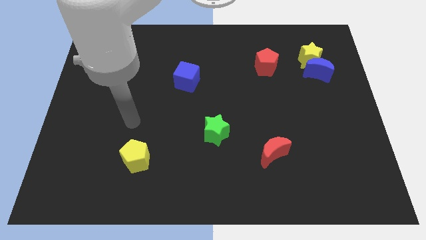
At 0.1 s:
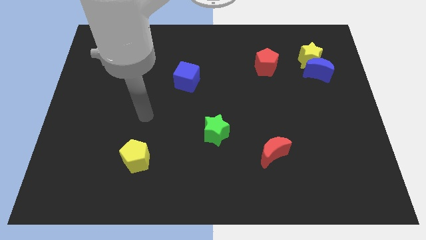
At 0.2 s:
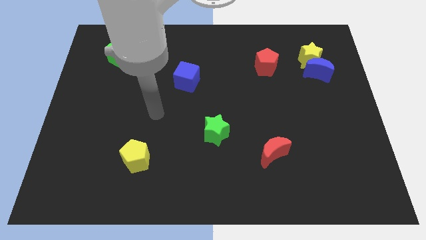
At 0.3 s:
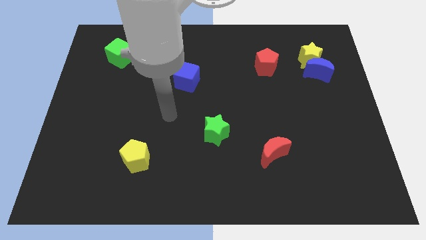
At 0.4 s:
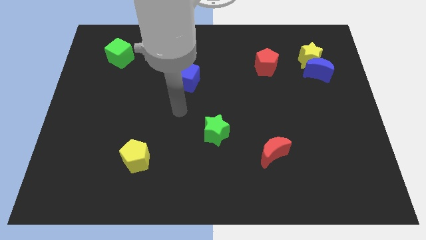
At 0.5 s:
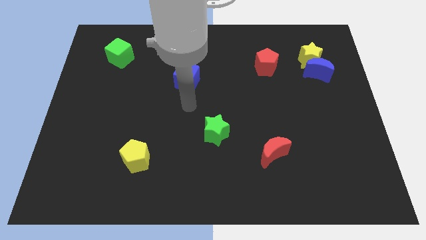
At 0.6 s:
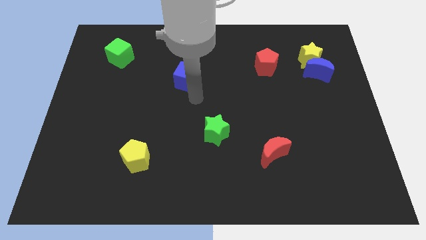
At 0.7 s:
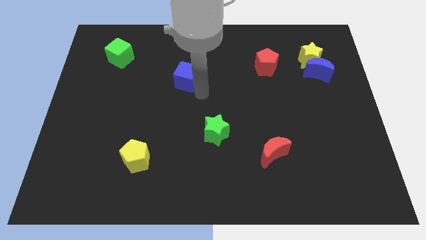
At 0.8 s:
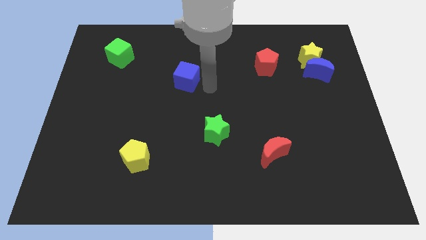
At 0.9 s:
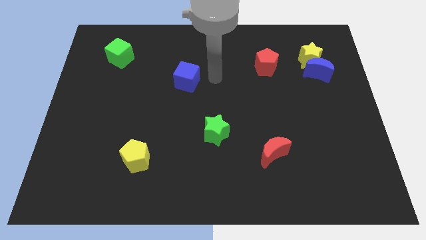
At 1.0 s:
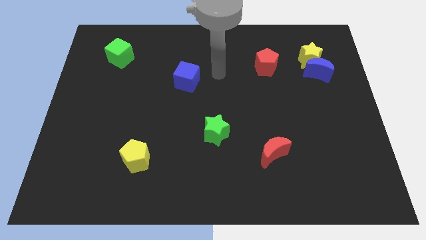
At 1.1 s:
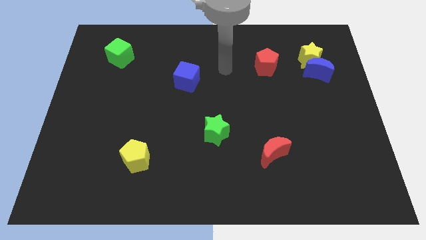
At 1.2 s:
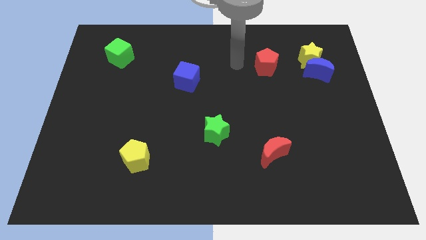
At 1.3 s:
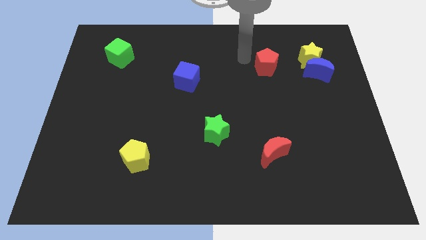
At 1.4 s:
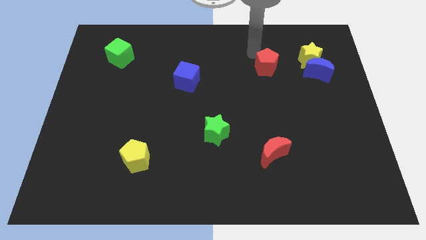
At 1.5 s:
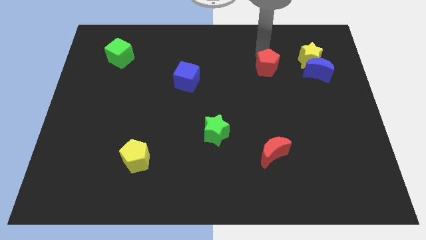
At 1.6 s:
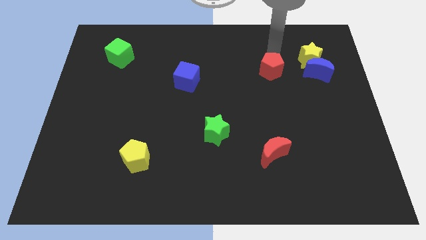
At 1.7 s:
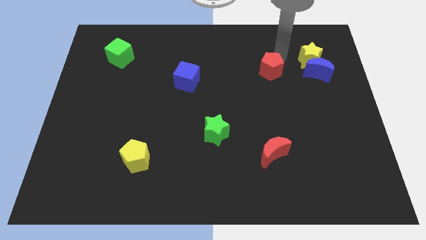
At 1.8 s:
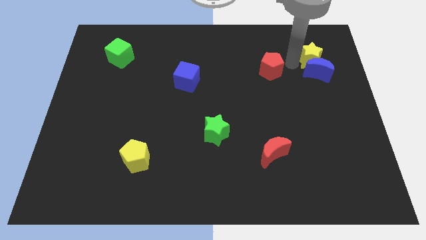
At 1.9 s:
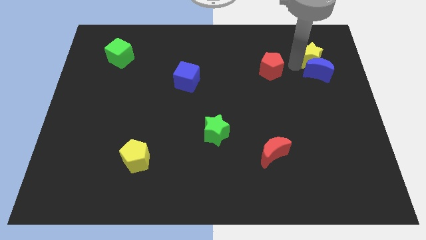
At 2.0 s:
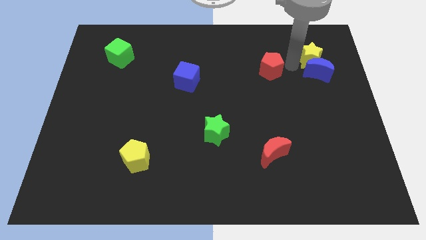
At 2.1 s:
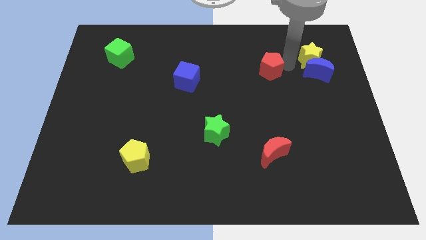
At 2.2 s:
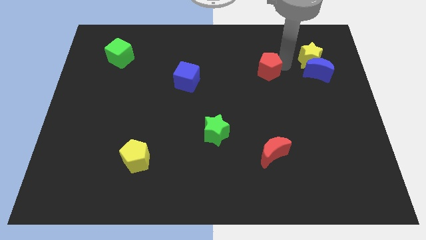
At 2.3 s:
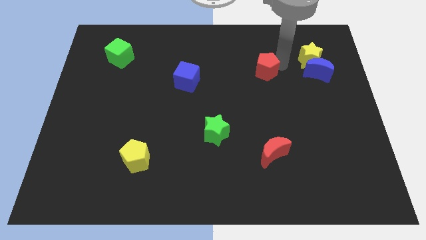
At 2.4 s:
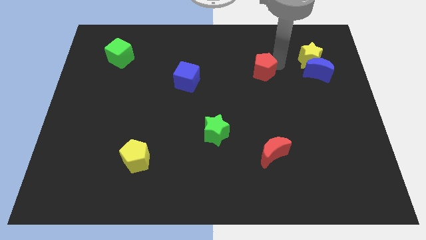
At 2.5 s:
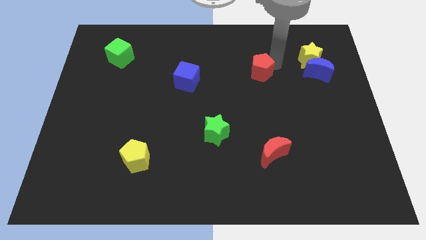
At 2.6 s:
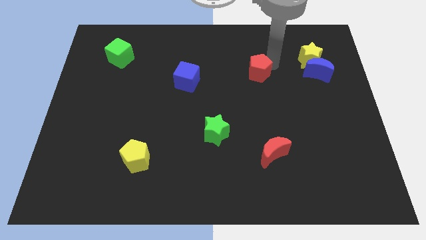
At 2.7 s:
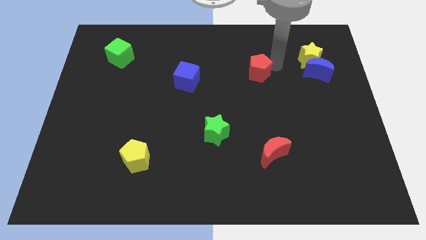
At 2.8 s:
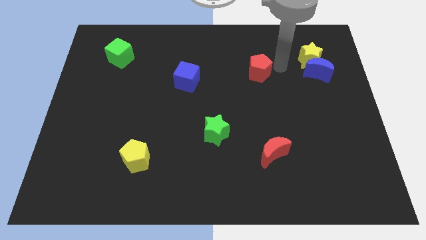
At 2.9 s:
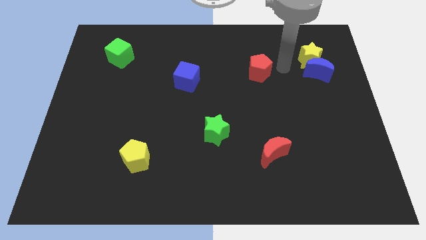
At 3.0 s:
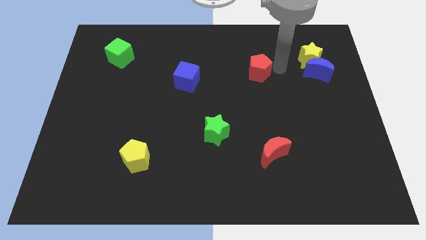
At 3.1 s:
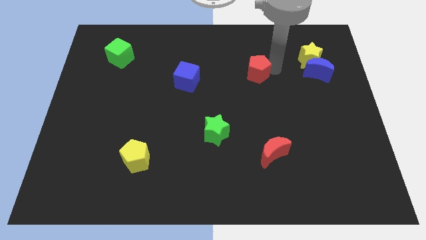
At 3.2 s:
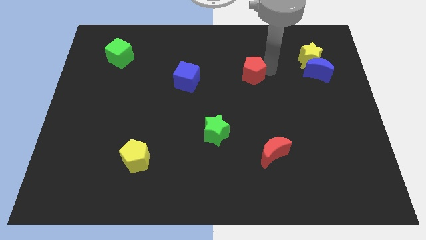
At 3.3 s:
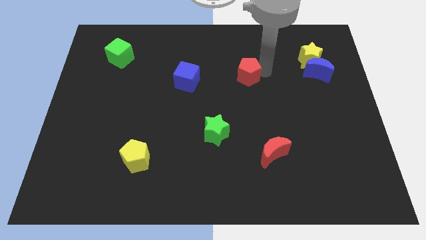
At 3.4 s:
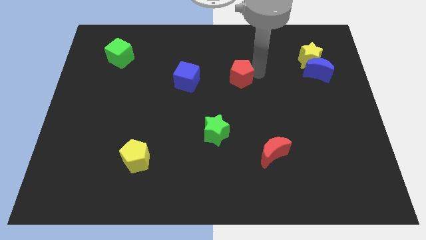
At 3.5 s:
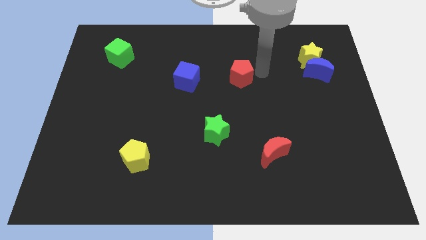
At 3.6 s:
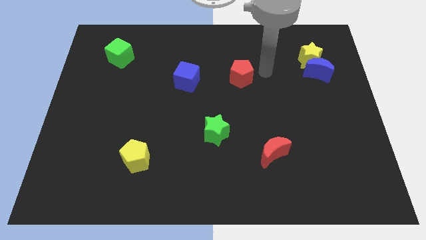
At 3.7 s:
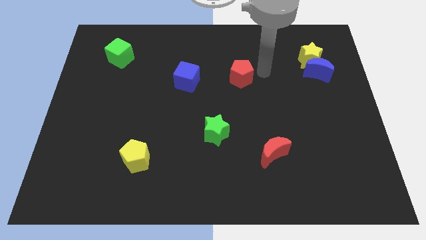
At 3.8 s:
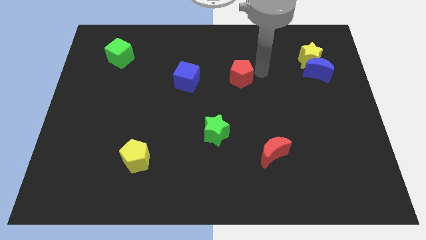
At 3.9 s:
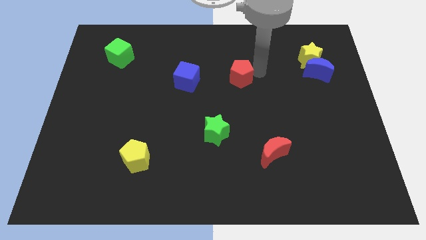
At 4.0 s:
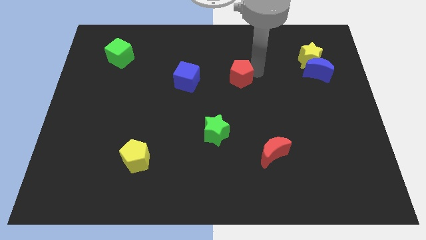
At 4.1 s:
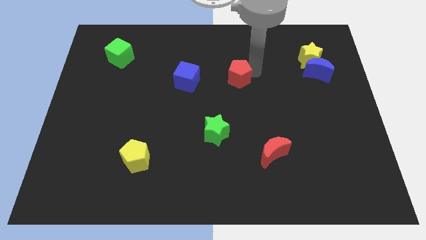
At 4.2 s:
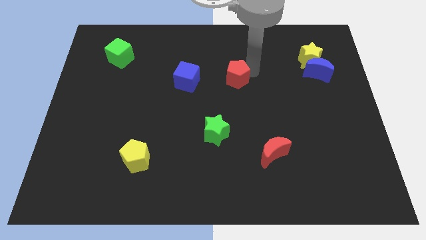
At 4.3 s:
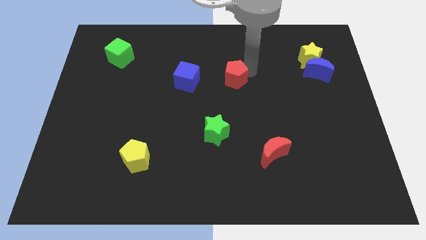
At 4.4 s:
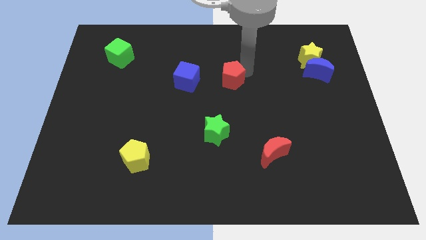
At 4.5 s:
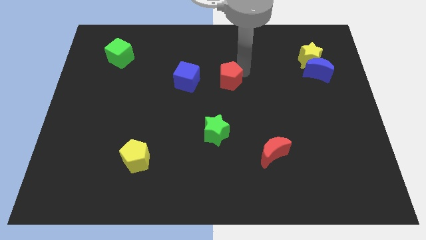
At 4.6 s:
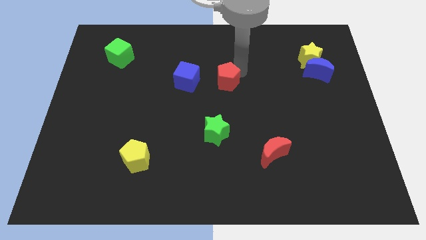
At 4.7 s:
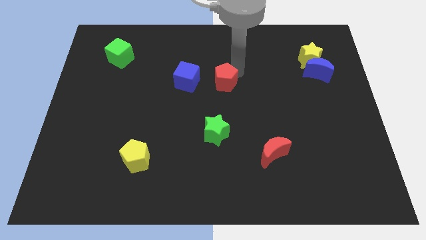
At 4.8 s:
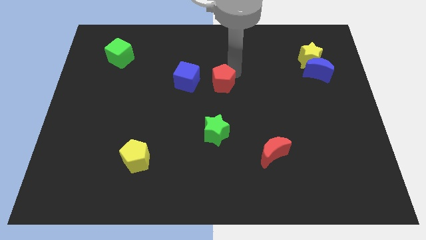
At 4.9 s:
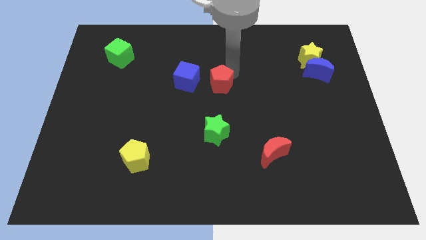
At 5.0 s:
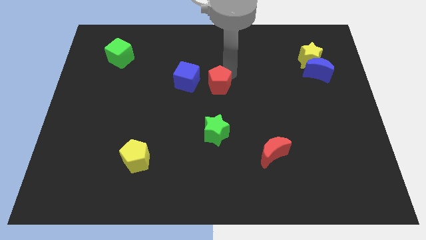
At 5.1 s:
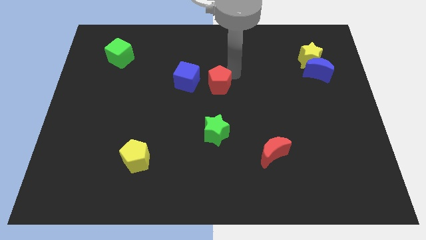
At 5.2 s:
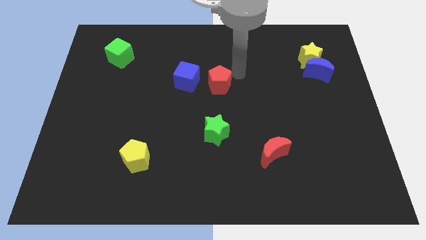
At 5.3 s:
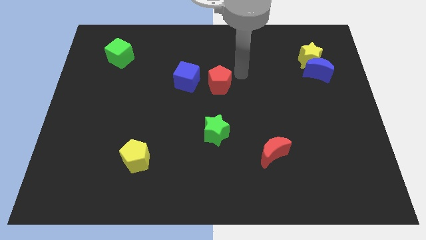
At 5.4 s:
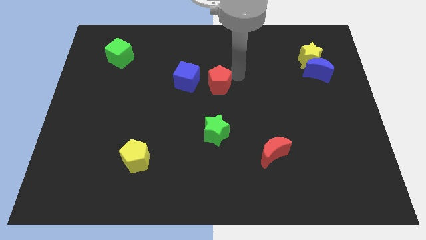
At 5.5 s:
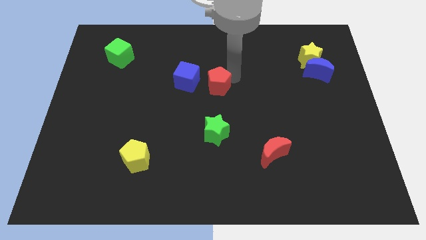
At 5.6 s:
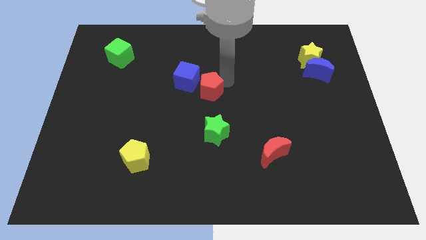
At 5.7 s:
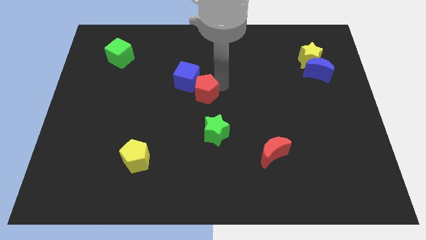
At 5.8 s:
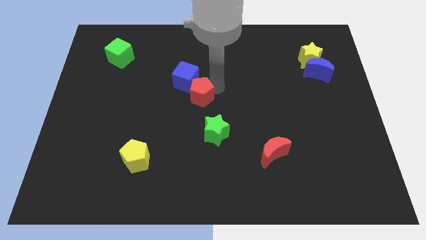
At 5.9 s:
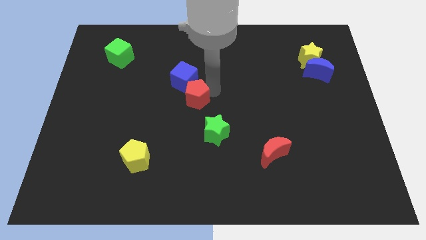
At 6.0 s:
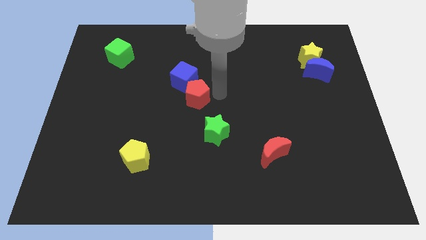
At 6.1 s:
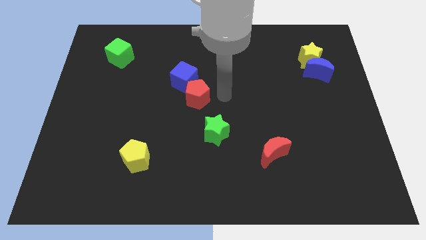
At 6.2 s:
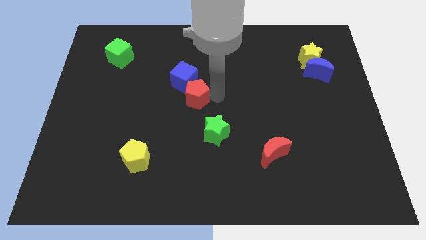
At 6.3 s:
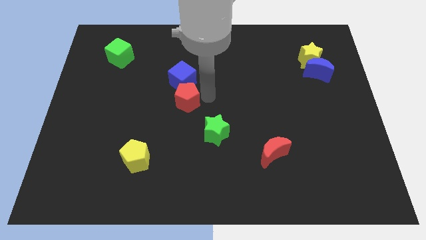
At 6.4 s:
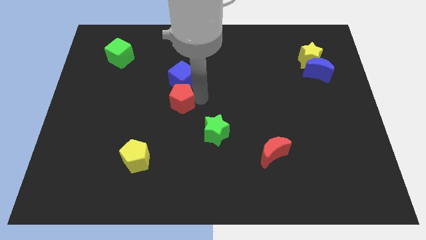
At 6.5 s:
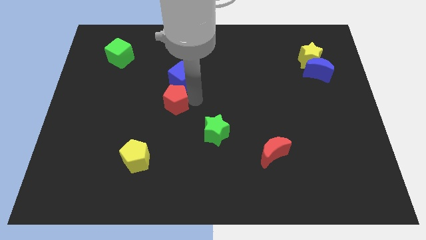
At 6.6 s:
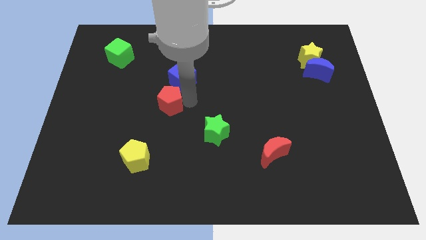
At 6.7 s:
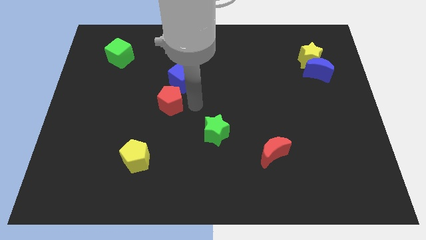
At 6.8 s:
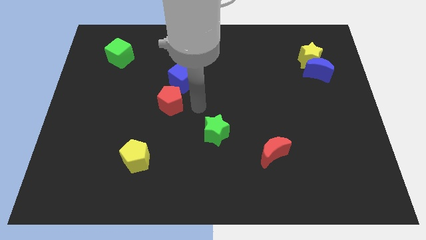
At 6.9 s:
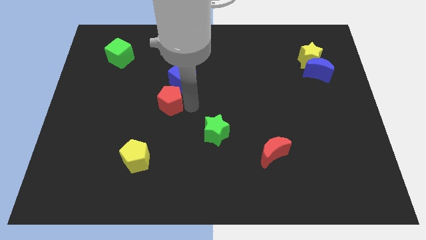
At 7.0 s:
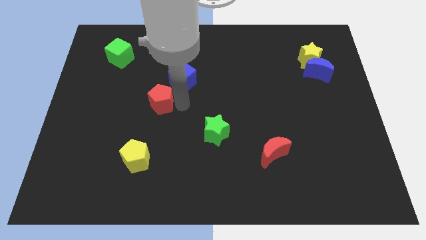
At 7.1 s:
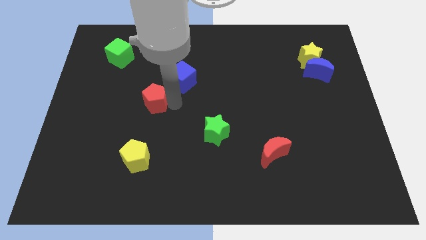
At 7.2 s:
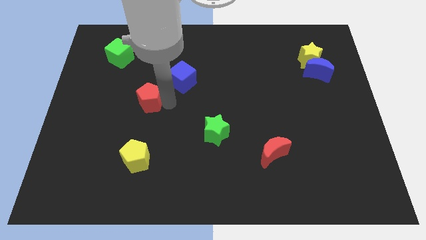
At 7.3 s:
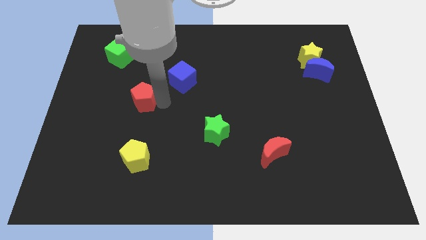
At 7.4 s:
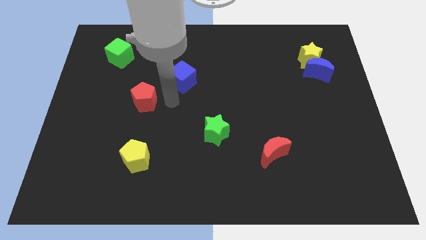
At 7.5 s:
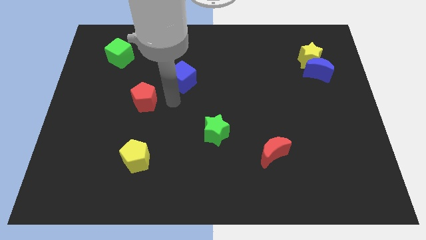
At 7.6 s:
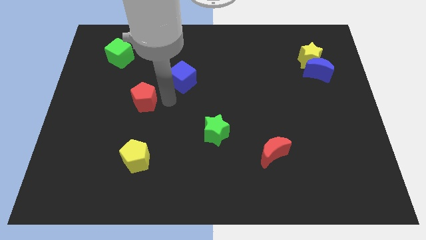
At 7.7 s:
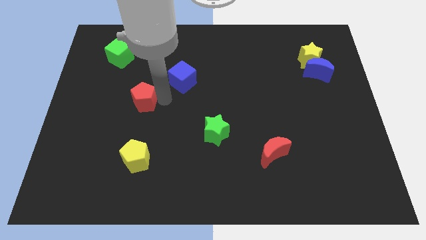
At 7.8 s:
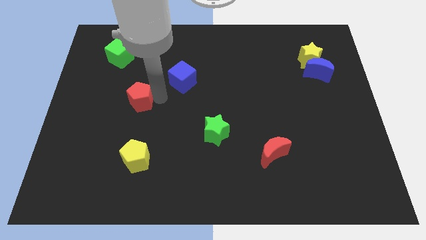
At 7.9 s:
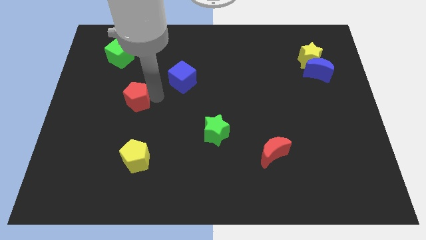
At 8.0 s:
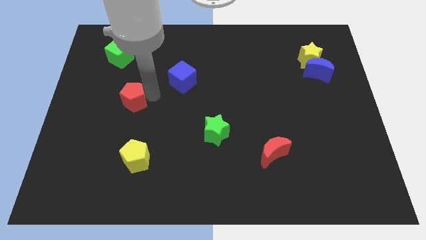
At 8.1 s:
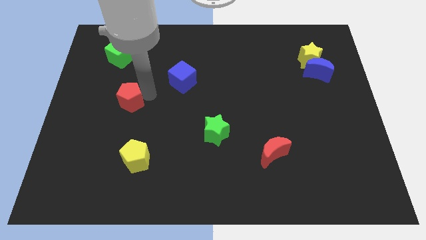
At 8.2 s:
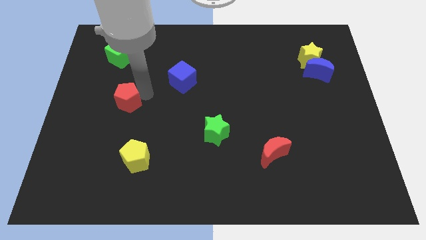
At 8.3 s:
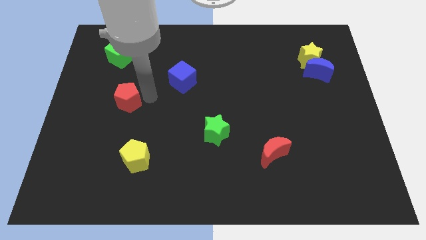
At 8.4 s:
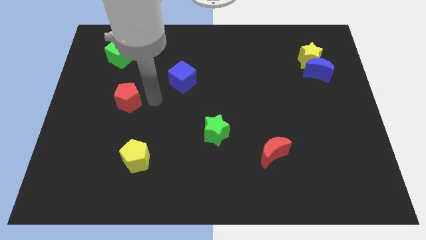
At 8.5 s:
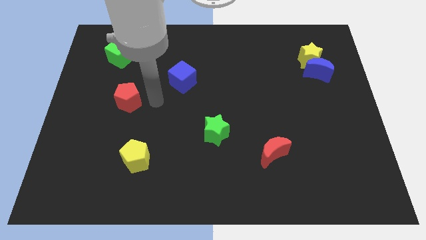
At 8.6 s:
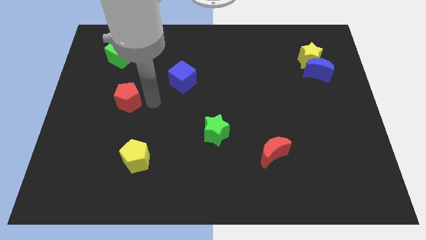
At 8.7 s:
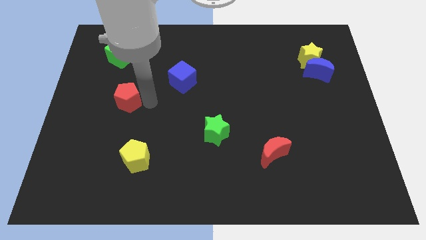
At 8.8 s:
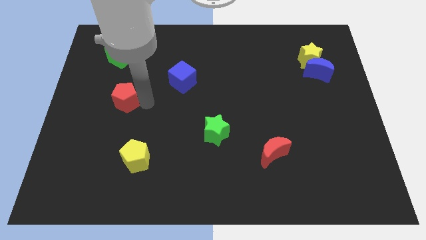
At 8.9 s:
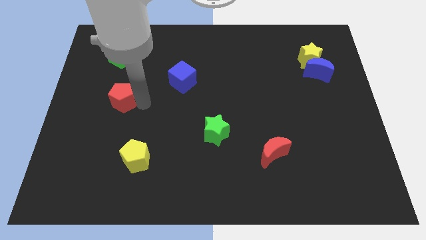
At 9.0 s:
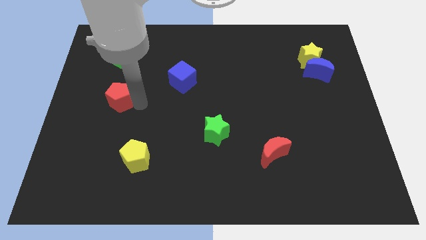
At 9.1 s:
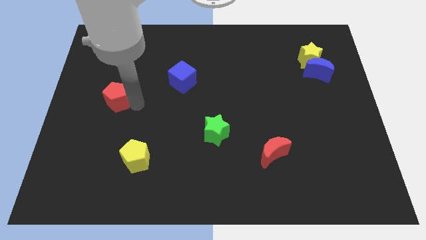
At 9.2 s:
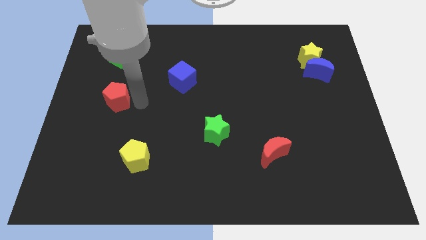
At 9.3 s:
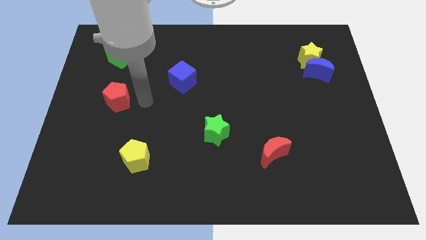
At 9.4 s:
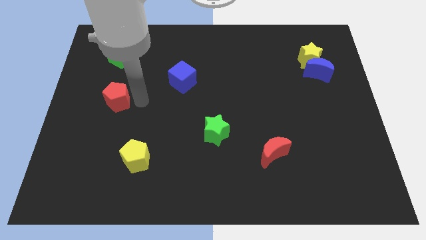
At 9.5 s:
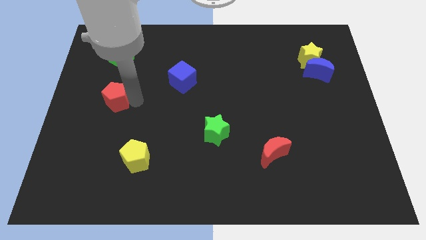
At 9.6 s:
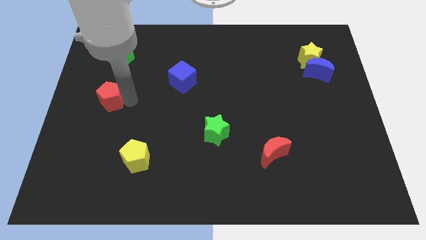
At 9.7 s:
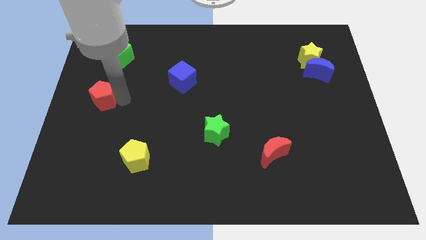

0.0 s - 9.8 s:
slide the red pentagon to the center left
